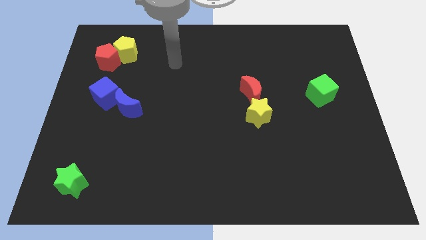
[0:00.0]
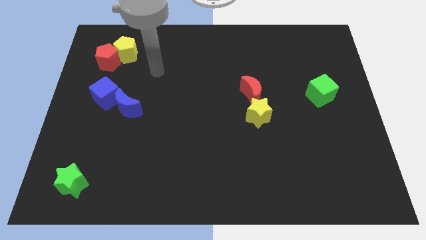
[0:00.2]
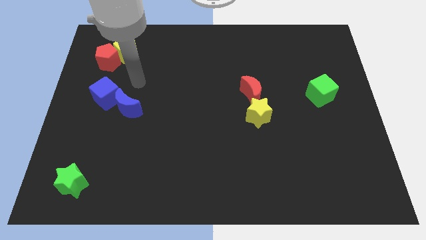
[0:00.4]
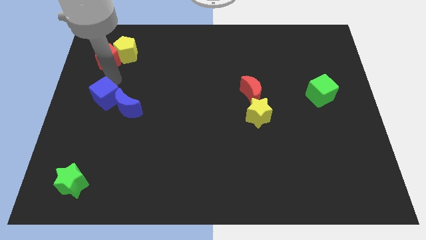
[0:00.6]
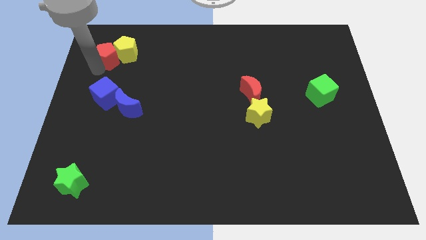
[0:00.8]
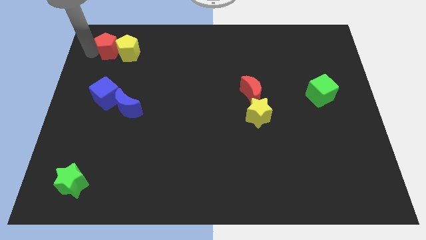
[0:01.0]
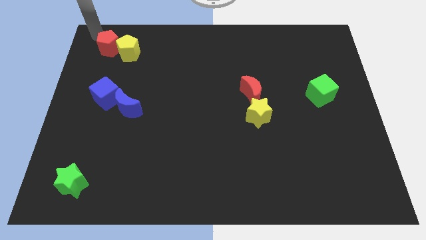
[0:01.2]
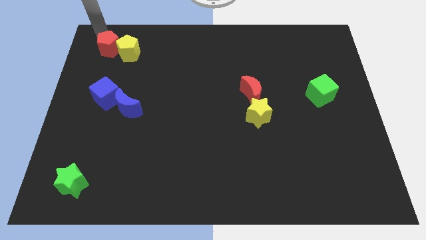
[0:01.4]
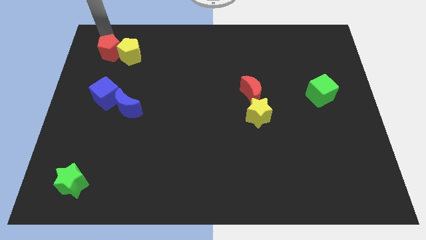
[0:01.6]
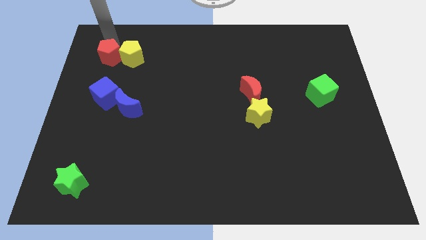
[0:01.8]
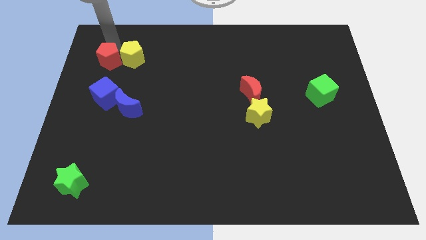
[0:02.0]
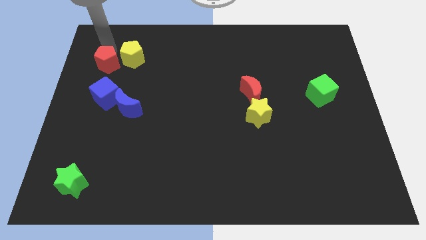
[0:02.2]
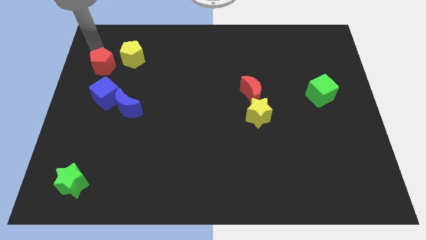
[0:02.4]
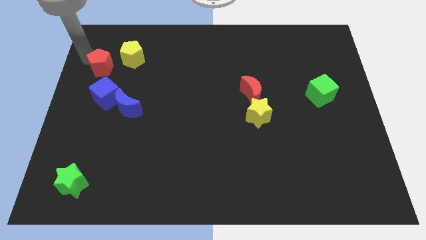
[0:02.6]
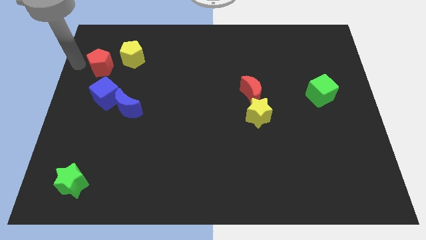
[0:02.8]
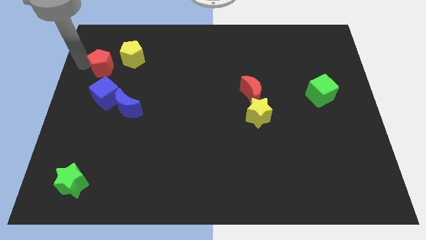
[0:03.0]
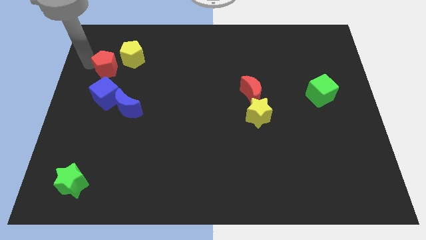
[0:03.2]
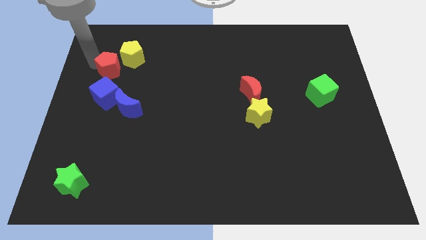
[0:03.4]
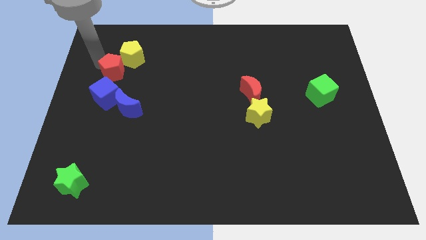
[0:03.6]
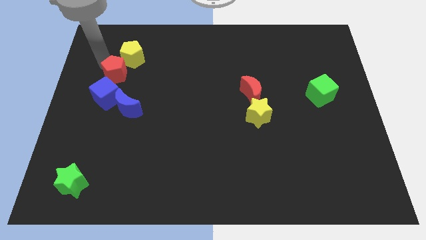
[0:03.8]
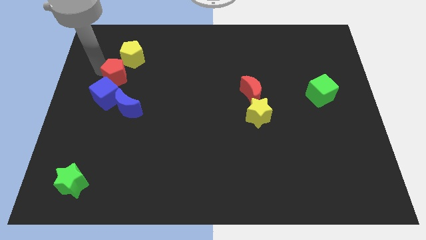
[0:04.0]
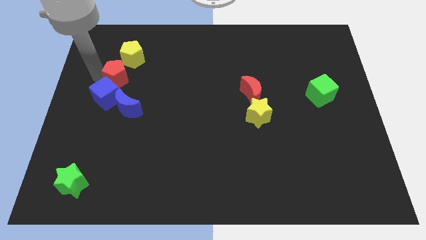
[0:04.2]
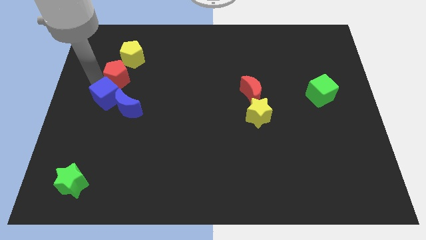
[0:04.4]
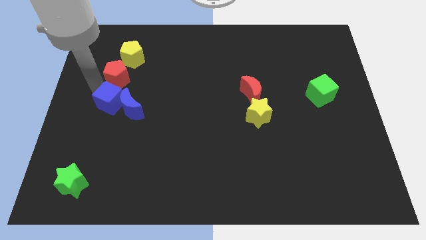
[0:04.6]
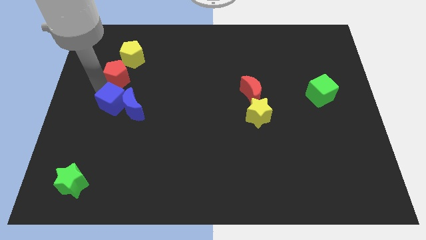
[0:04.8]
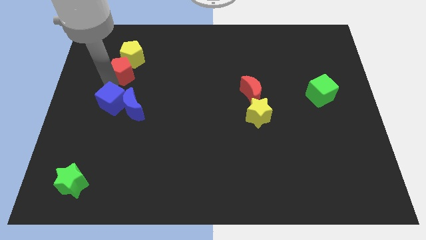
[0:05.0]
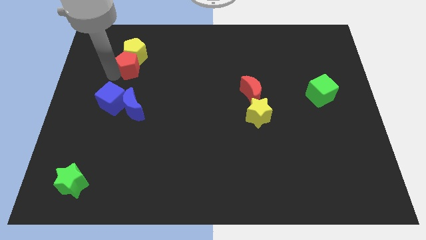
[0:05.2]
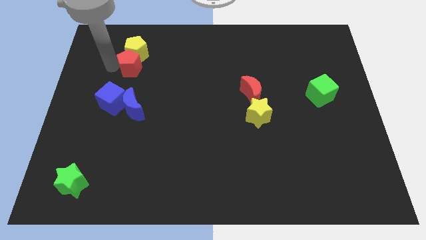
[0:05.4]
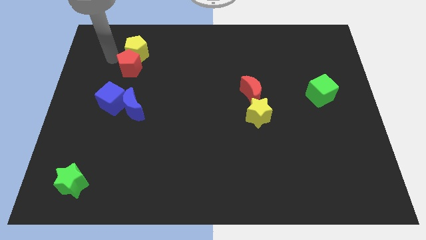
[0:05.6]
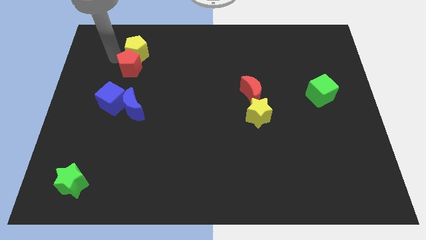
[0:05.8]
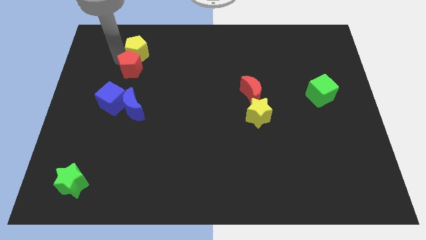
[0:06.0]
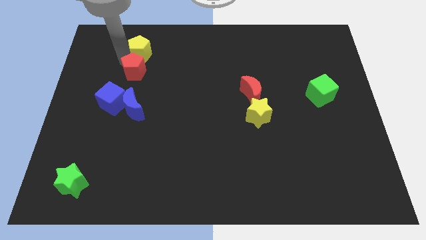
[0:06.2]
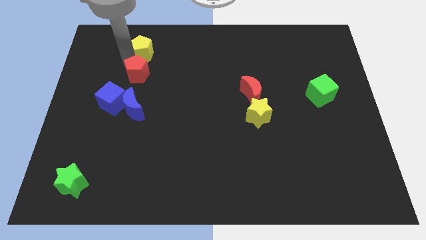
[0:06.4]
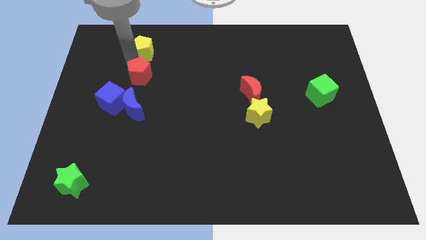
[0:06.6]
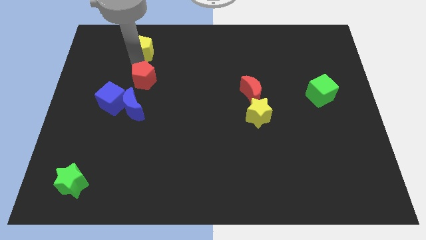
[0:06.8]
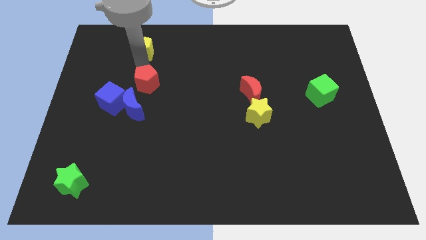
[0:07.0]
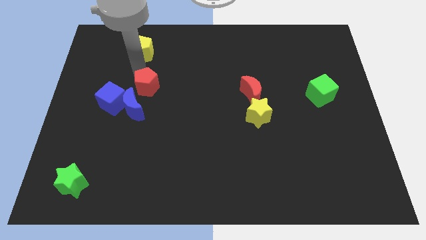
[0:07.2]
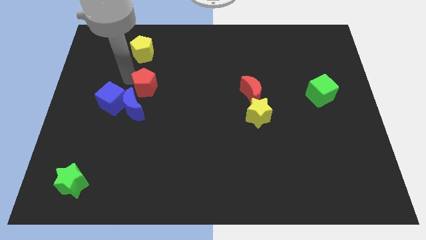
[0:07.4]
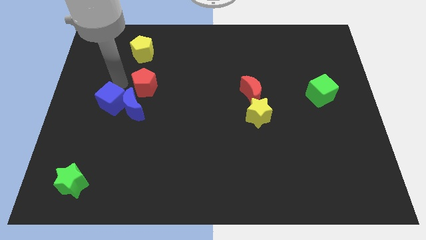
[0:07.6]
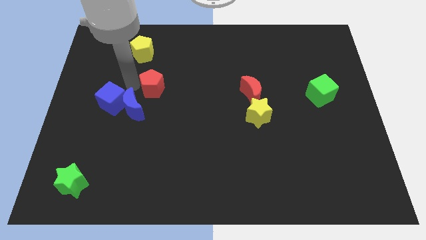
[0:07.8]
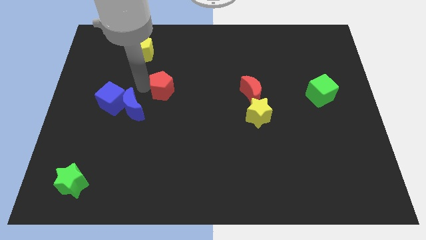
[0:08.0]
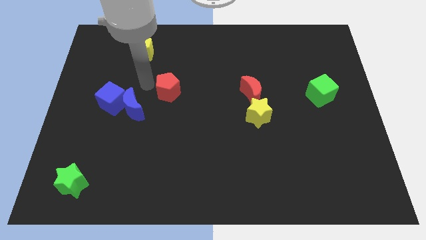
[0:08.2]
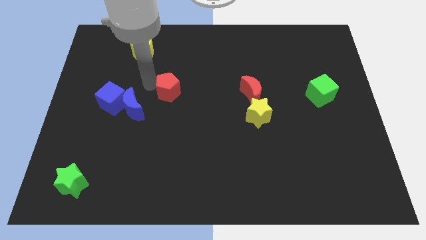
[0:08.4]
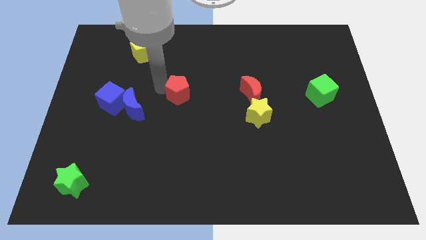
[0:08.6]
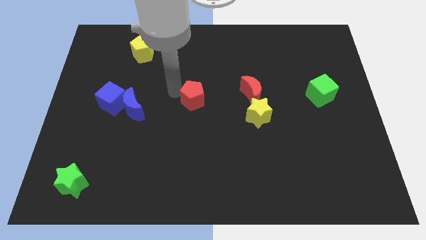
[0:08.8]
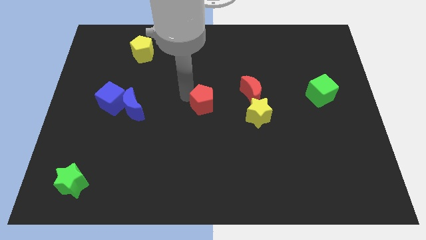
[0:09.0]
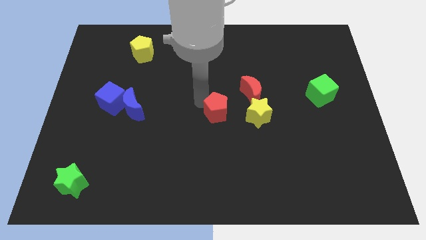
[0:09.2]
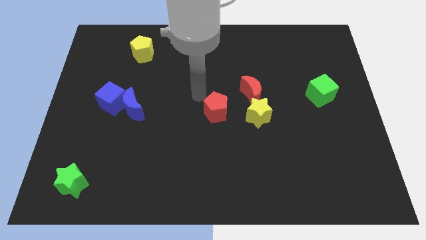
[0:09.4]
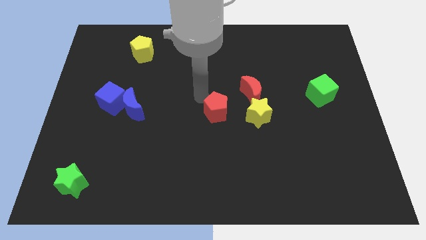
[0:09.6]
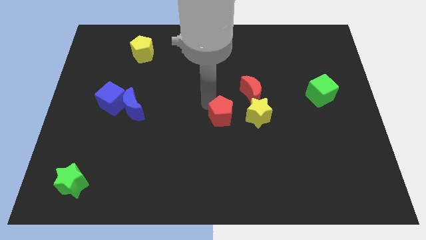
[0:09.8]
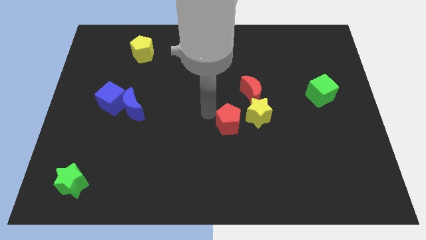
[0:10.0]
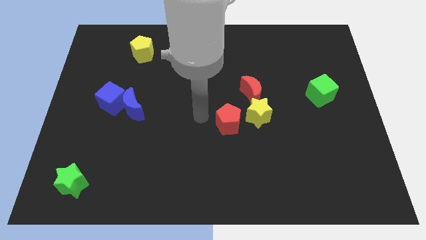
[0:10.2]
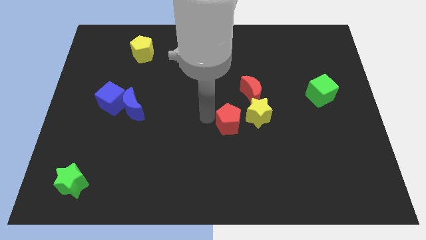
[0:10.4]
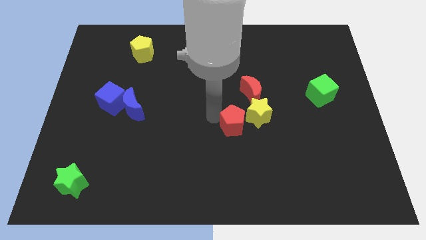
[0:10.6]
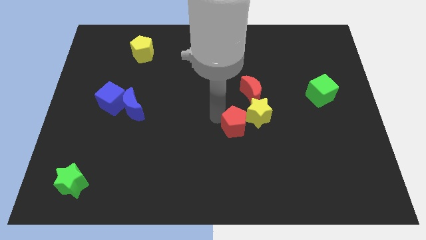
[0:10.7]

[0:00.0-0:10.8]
push the red pentagon below the red moon

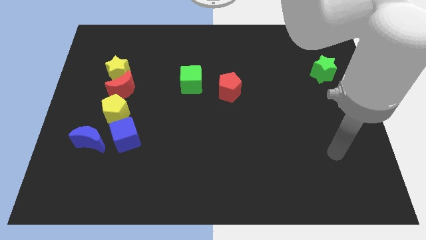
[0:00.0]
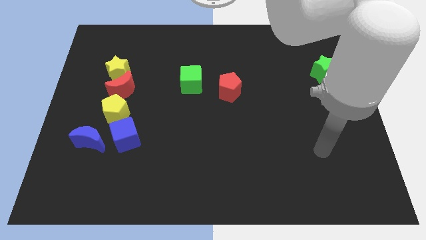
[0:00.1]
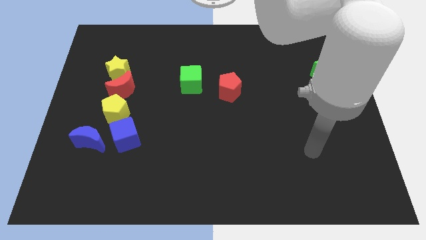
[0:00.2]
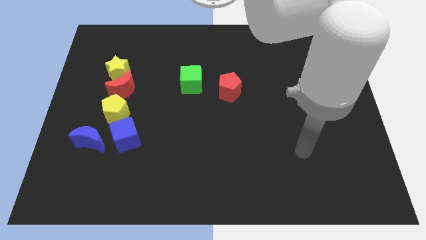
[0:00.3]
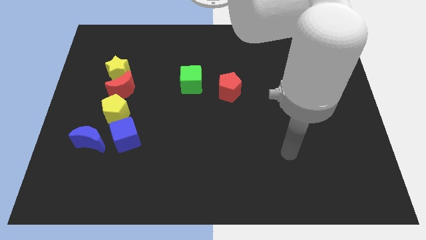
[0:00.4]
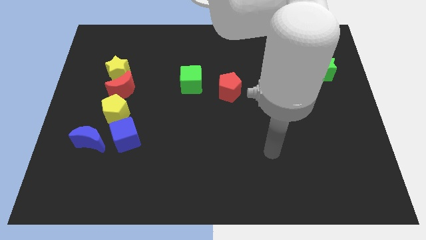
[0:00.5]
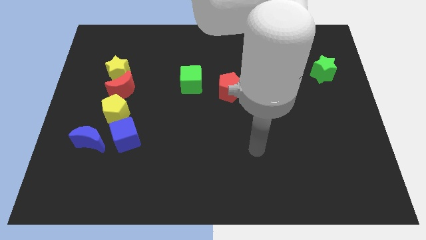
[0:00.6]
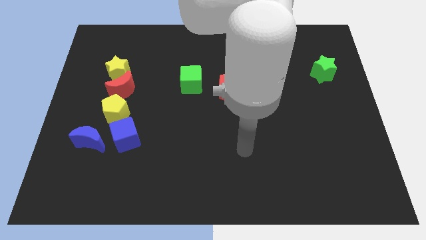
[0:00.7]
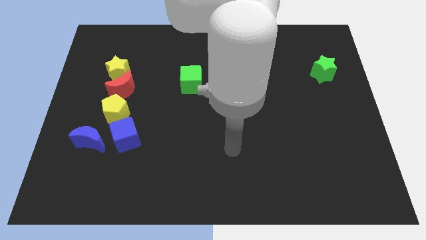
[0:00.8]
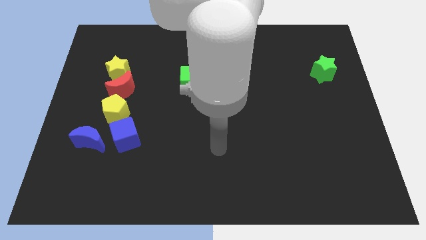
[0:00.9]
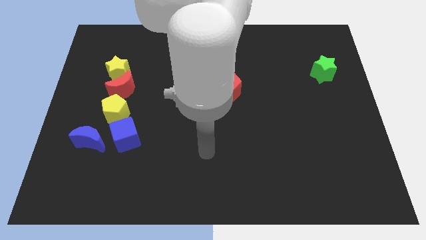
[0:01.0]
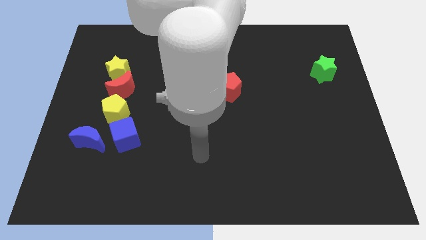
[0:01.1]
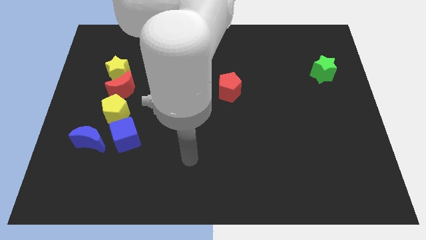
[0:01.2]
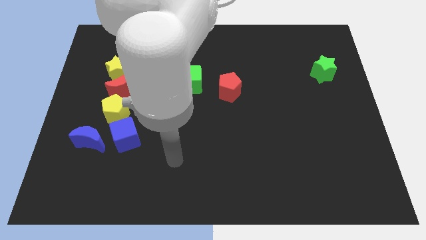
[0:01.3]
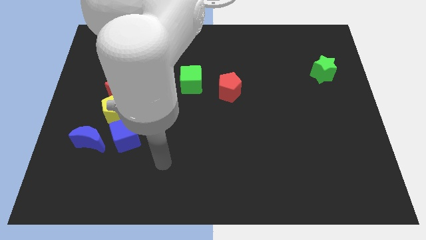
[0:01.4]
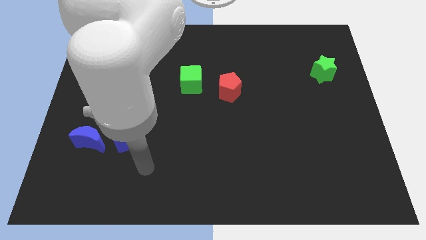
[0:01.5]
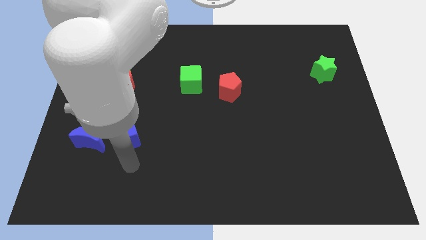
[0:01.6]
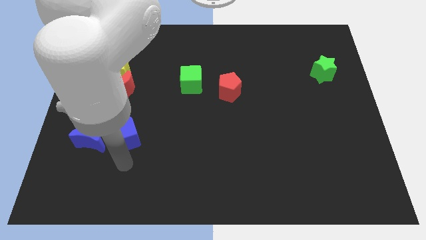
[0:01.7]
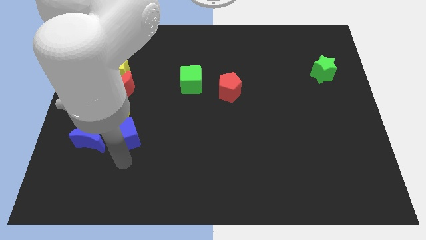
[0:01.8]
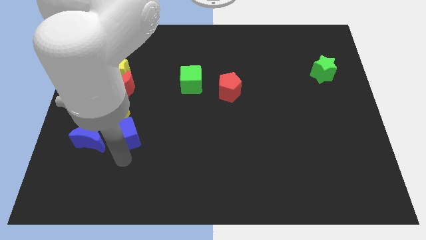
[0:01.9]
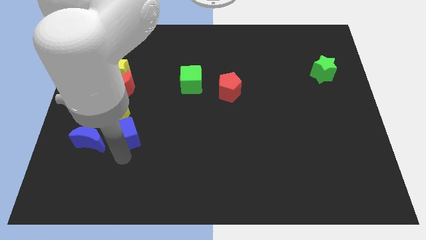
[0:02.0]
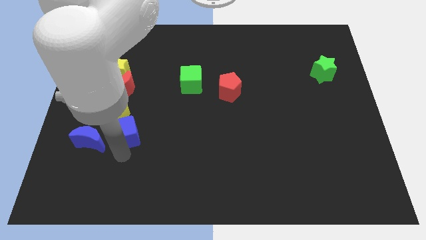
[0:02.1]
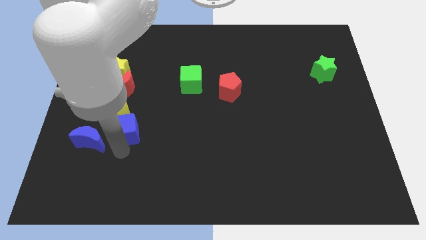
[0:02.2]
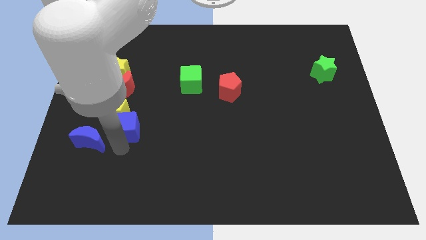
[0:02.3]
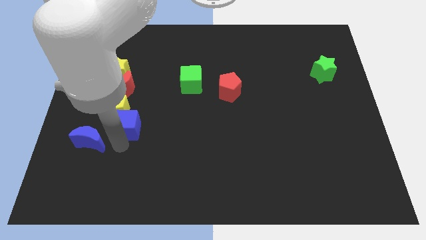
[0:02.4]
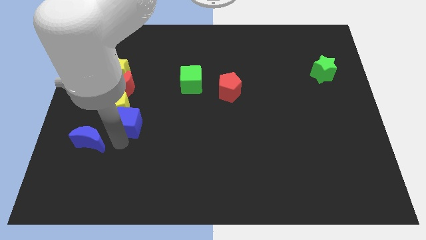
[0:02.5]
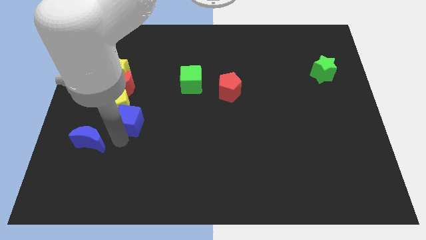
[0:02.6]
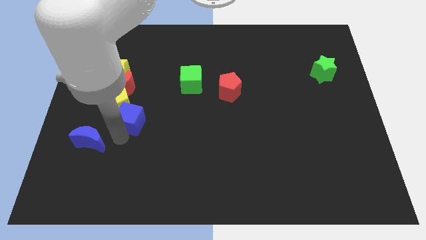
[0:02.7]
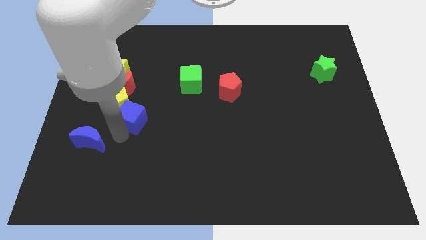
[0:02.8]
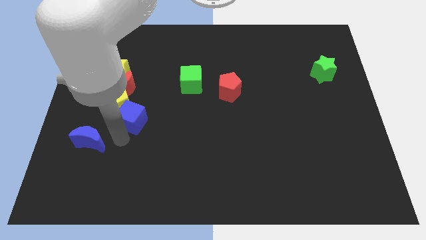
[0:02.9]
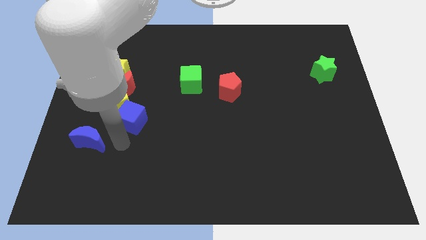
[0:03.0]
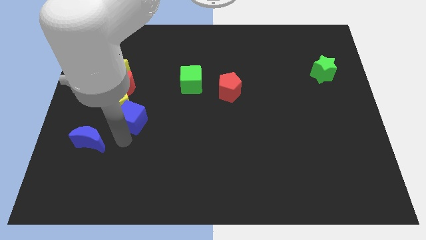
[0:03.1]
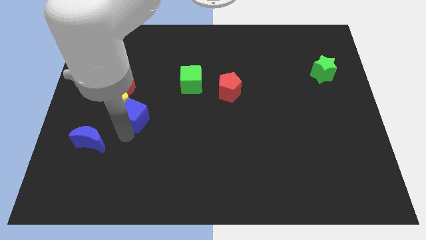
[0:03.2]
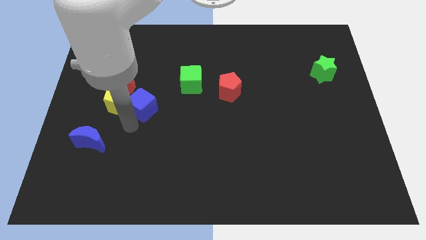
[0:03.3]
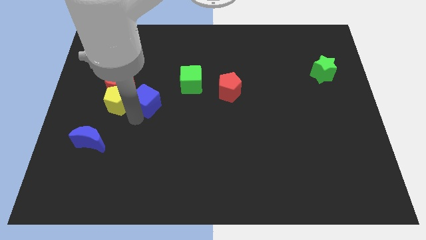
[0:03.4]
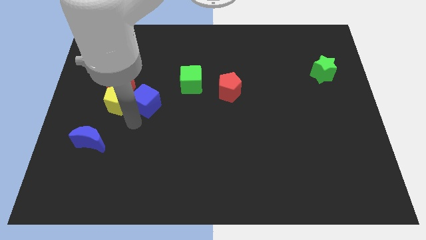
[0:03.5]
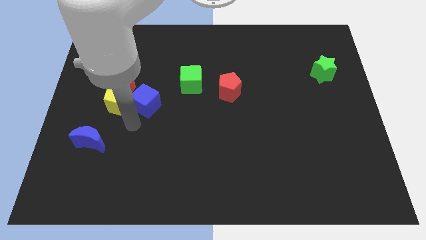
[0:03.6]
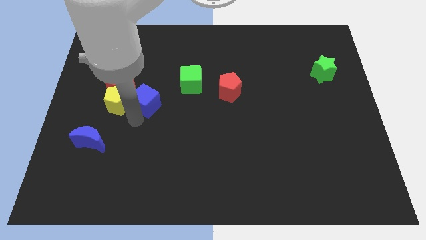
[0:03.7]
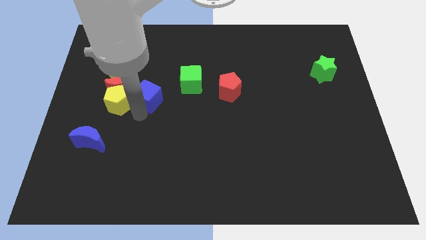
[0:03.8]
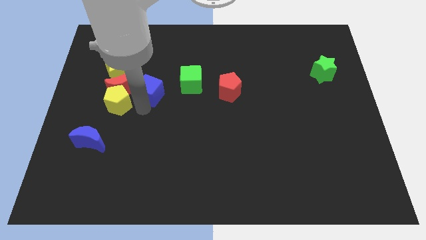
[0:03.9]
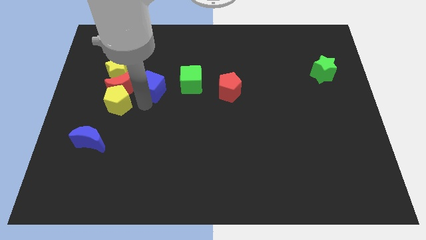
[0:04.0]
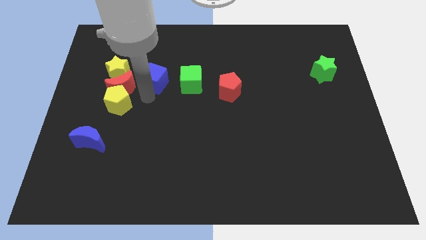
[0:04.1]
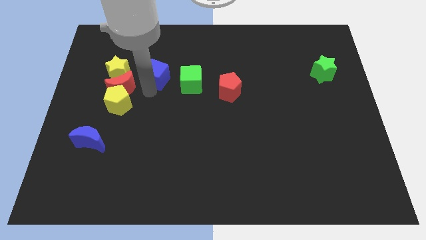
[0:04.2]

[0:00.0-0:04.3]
put the blue cube to the top left of the green cube
